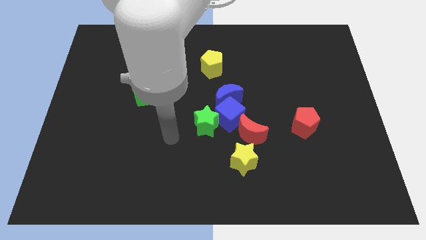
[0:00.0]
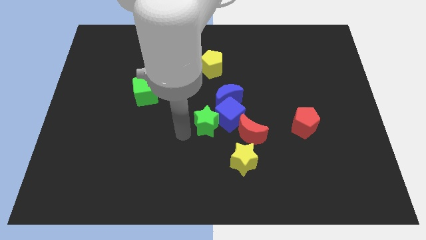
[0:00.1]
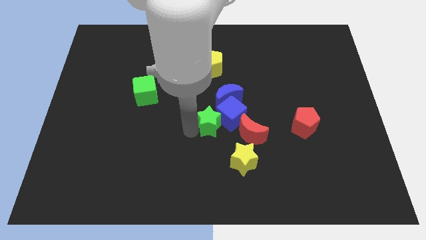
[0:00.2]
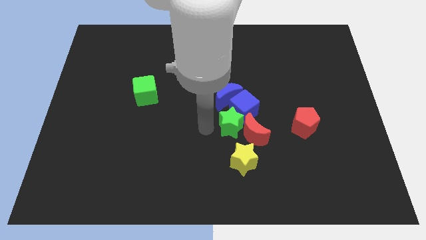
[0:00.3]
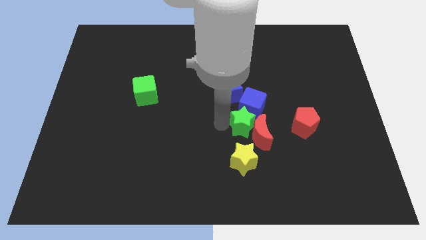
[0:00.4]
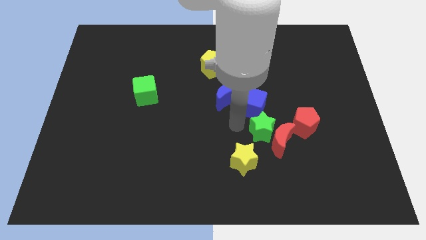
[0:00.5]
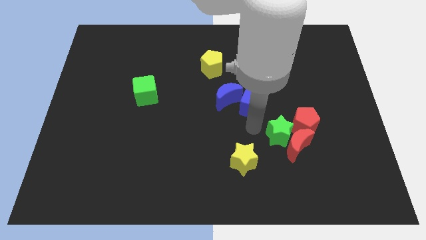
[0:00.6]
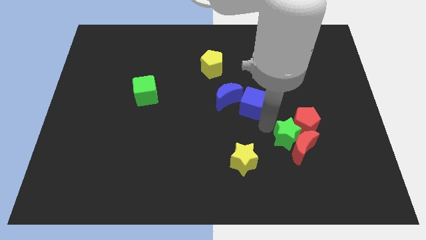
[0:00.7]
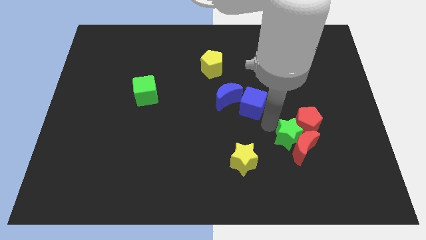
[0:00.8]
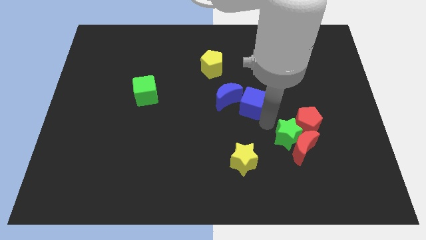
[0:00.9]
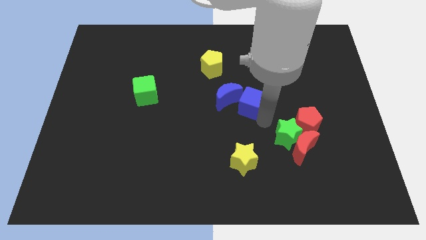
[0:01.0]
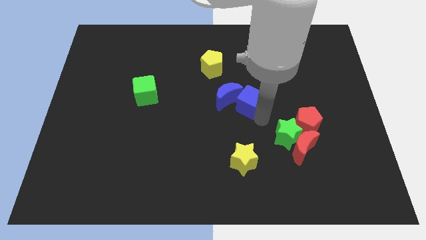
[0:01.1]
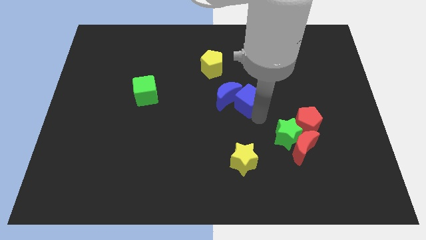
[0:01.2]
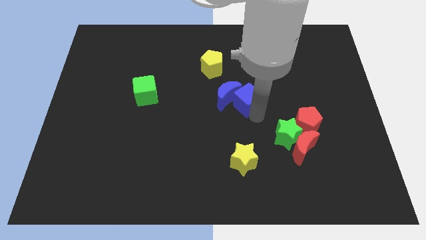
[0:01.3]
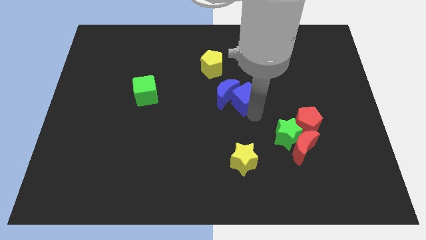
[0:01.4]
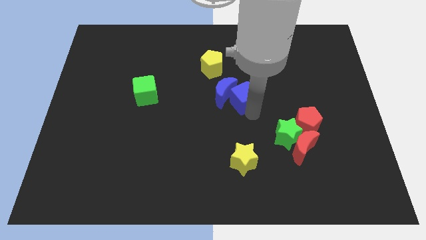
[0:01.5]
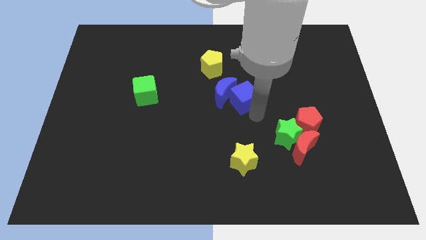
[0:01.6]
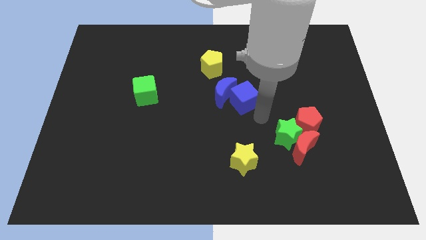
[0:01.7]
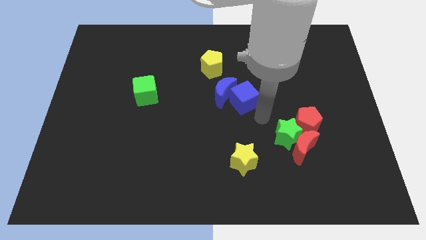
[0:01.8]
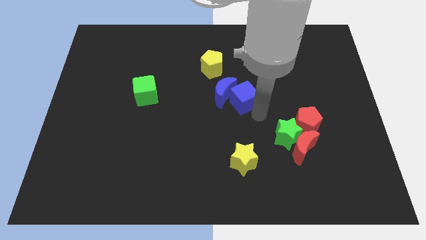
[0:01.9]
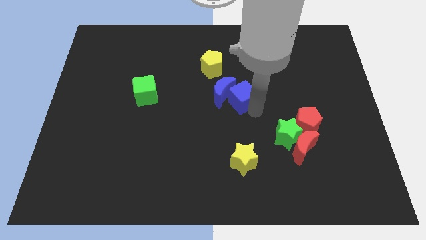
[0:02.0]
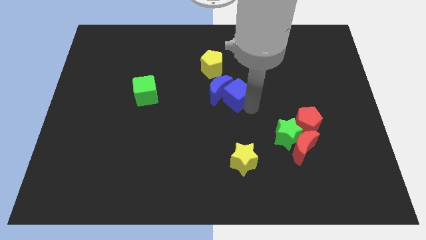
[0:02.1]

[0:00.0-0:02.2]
separate the blue cube from the group of blocks

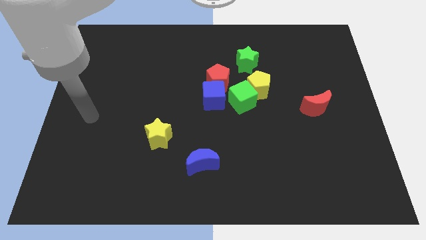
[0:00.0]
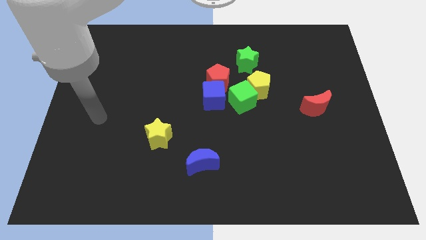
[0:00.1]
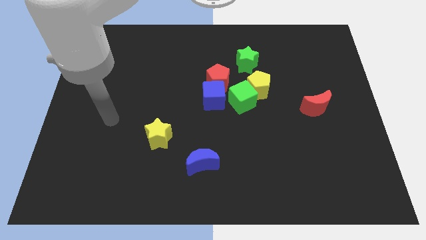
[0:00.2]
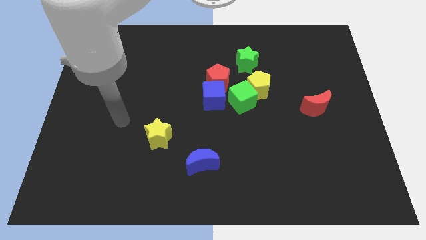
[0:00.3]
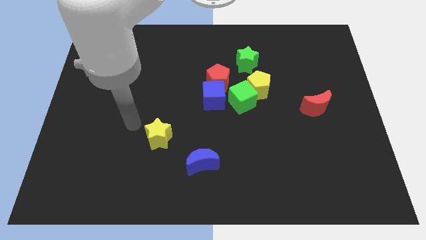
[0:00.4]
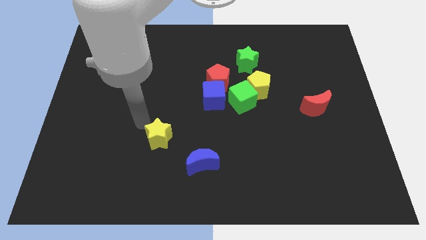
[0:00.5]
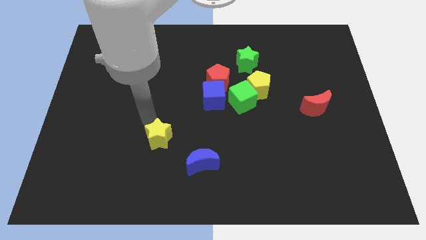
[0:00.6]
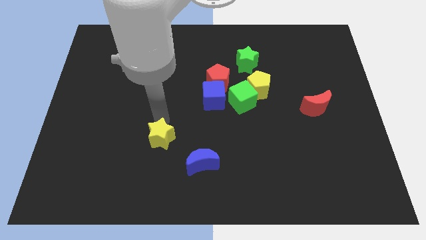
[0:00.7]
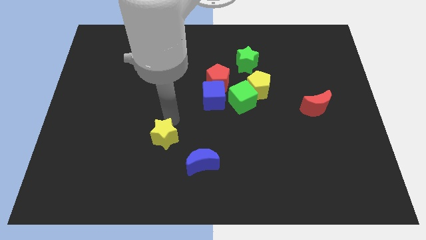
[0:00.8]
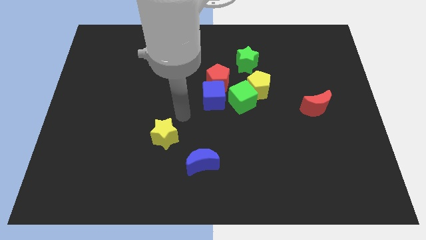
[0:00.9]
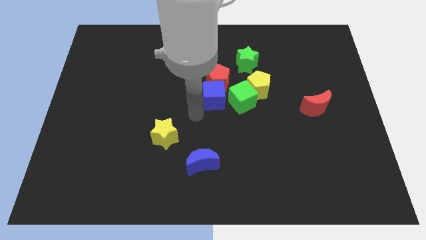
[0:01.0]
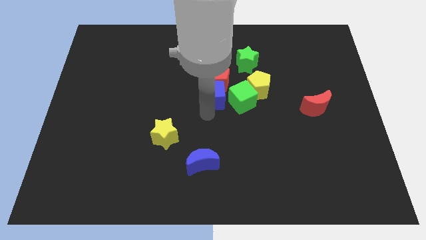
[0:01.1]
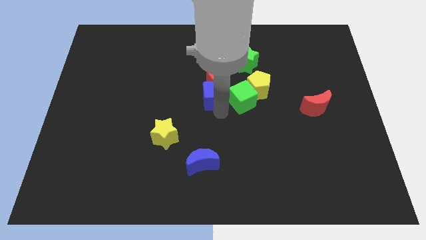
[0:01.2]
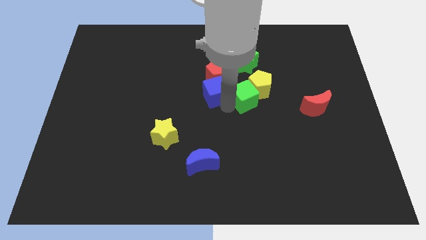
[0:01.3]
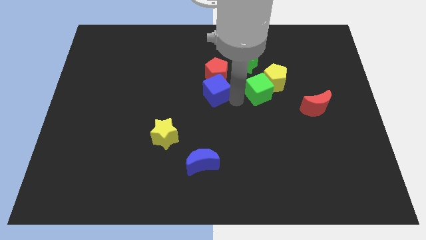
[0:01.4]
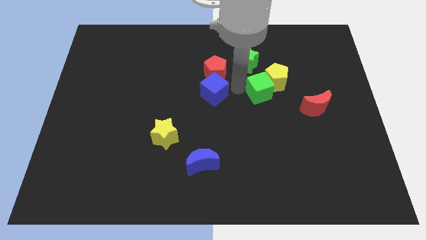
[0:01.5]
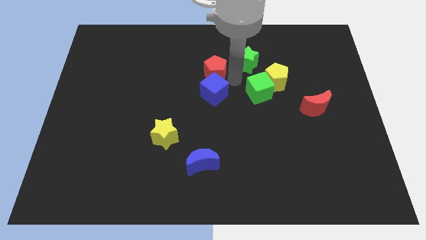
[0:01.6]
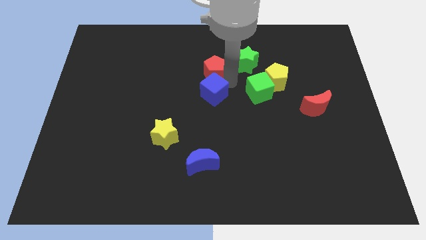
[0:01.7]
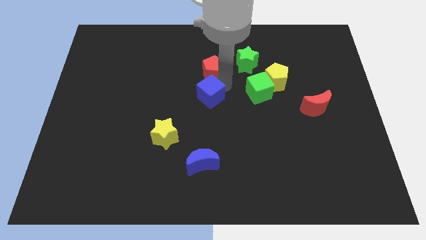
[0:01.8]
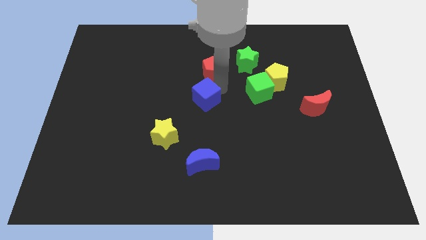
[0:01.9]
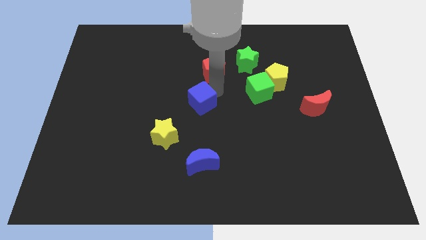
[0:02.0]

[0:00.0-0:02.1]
separate the blue cube from the red pentagon and green cube

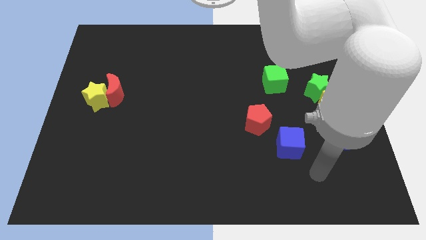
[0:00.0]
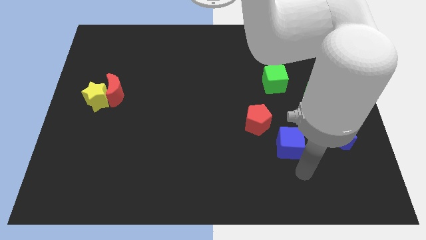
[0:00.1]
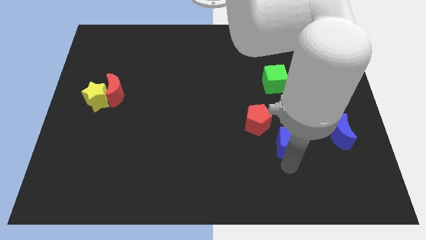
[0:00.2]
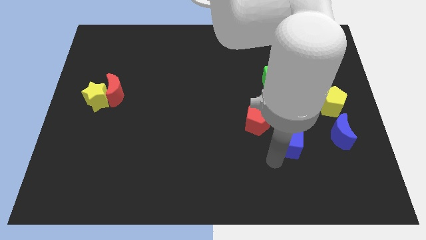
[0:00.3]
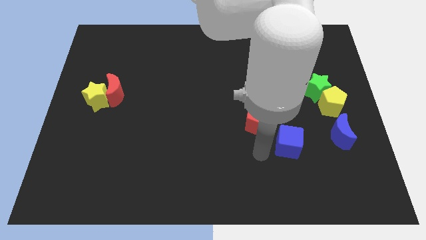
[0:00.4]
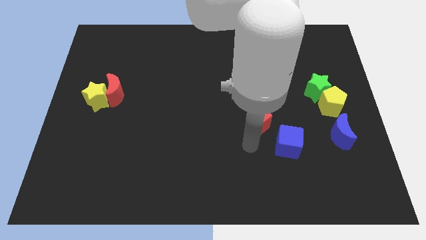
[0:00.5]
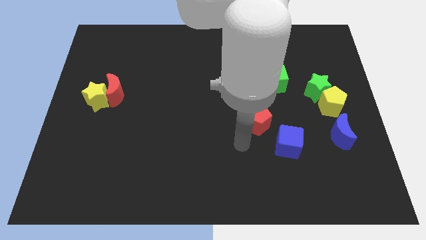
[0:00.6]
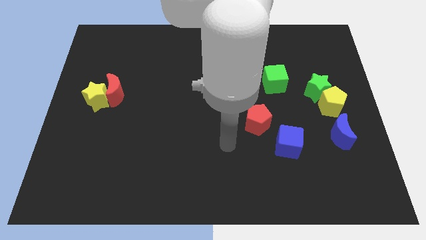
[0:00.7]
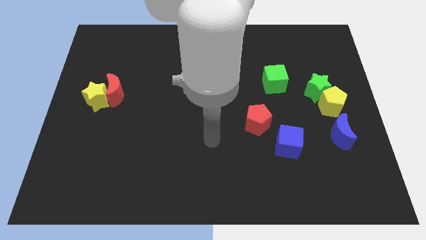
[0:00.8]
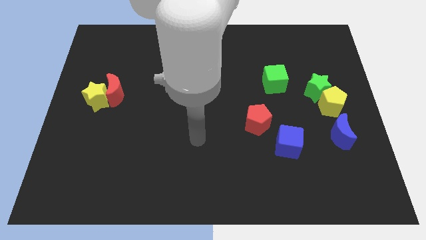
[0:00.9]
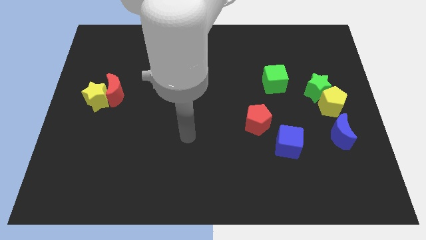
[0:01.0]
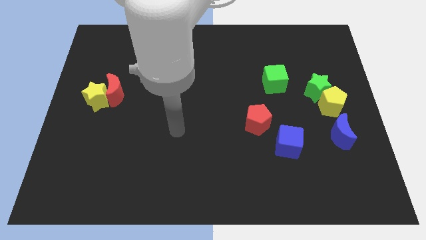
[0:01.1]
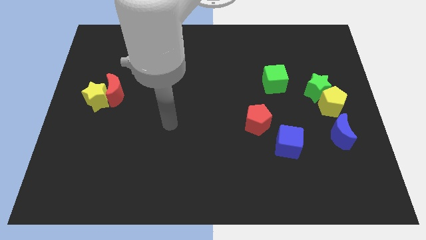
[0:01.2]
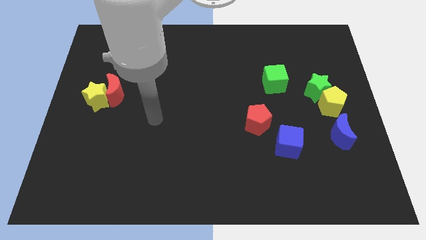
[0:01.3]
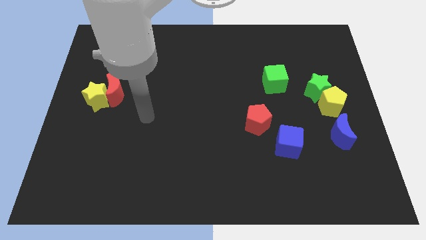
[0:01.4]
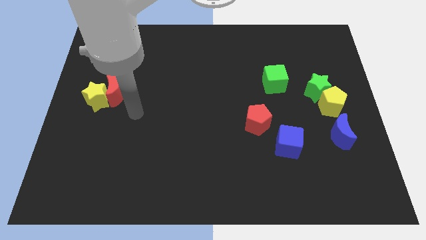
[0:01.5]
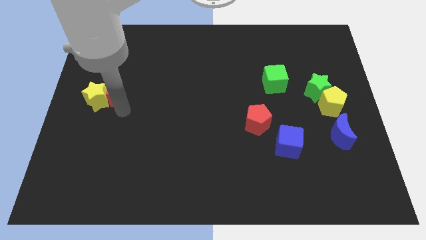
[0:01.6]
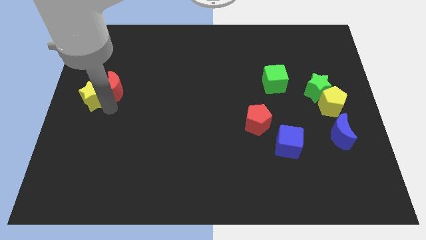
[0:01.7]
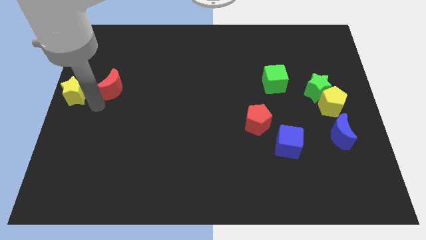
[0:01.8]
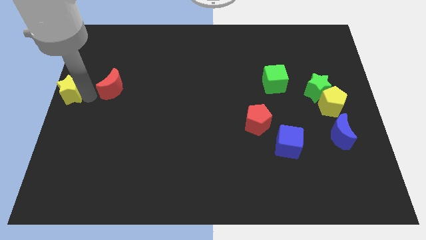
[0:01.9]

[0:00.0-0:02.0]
move the red moon away from the yellow star

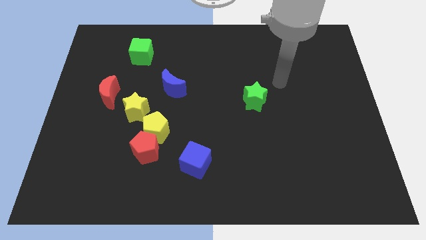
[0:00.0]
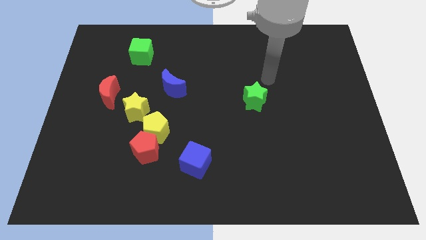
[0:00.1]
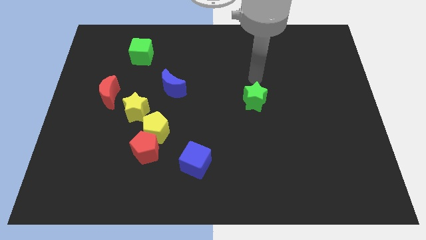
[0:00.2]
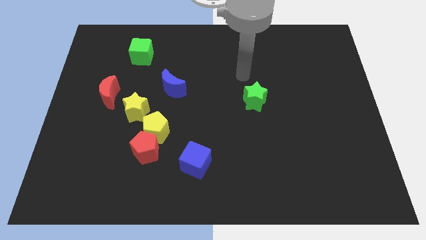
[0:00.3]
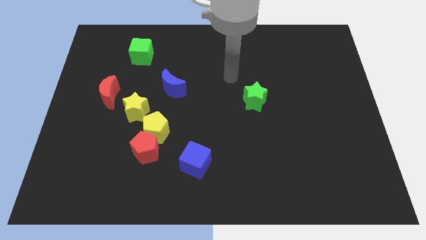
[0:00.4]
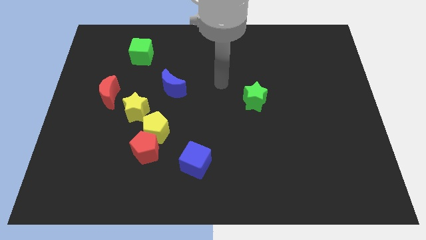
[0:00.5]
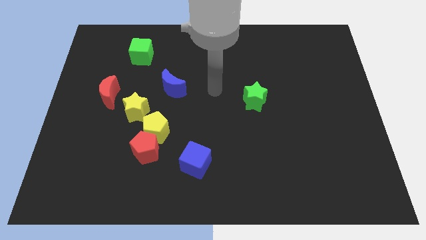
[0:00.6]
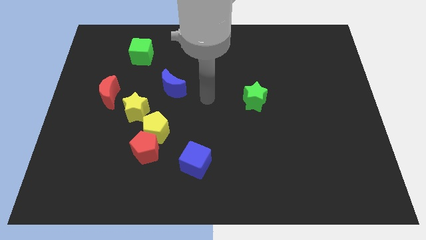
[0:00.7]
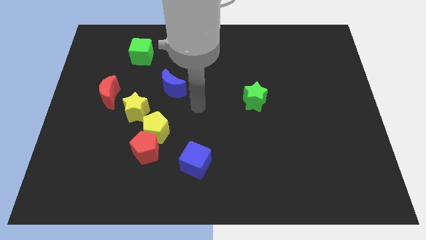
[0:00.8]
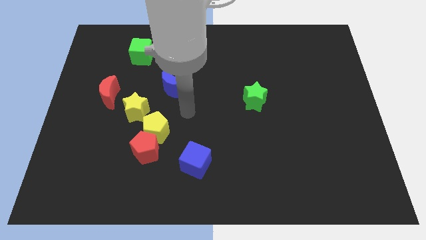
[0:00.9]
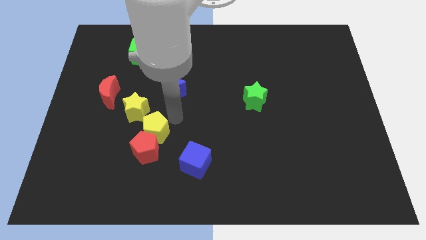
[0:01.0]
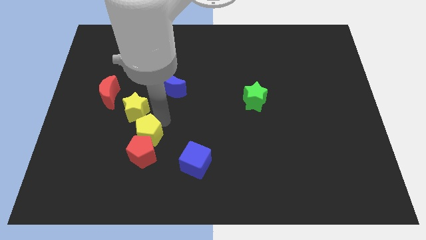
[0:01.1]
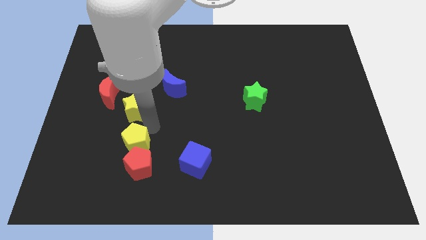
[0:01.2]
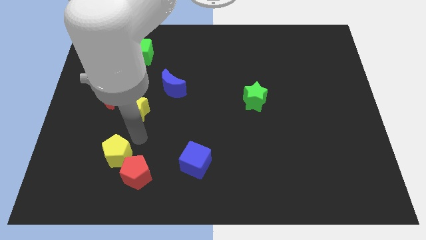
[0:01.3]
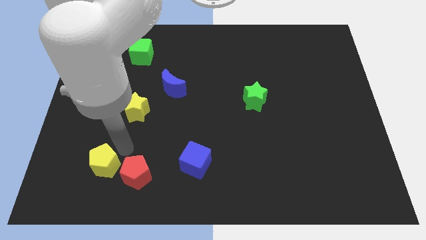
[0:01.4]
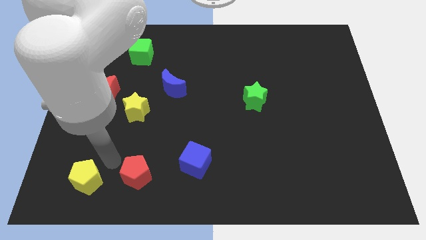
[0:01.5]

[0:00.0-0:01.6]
move the red pentagon away from the yellow pentagon

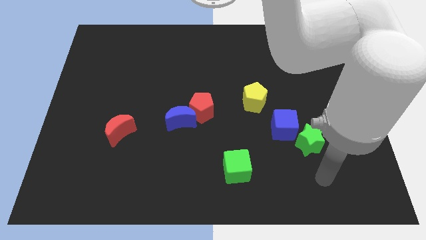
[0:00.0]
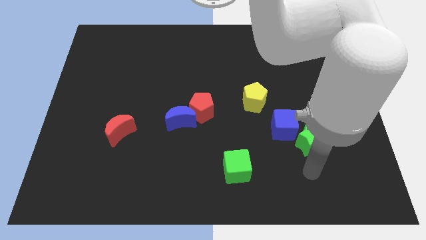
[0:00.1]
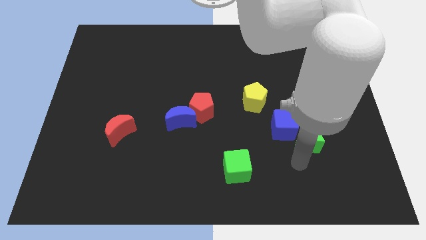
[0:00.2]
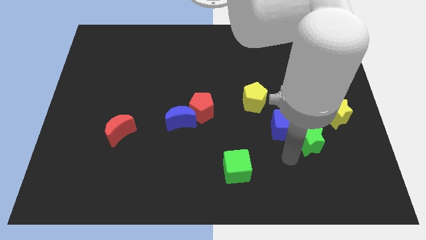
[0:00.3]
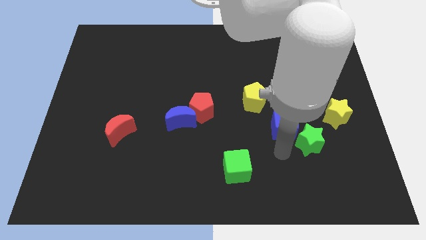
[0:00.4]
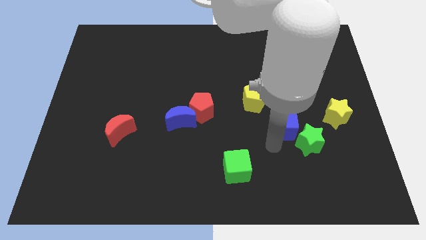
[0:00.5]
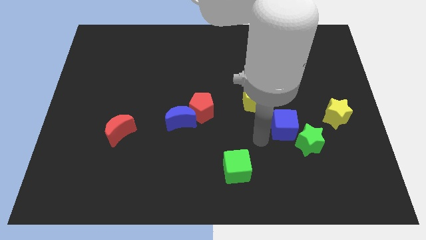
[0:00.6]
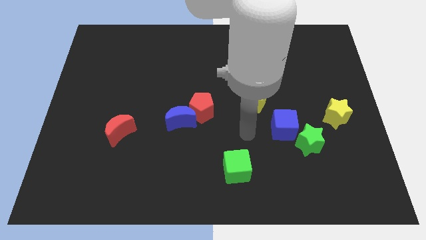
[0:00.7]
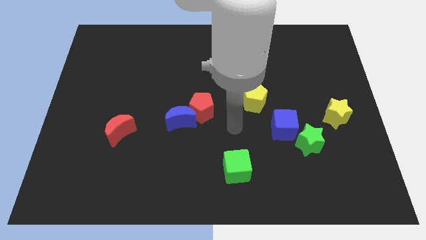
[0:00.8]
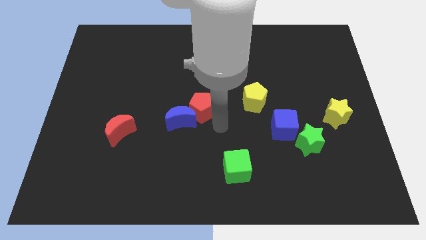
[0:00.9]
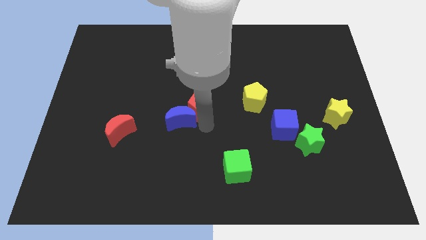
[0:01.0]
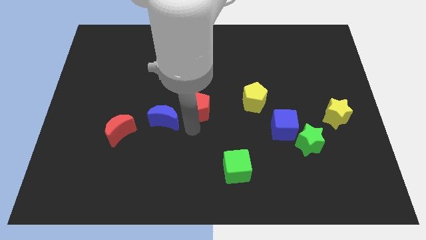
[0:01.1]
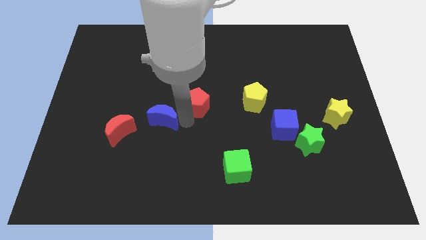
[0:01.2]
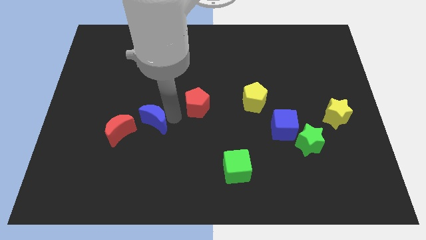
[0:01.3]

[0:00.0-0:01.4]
pull the red pentagon apart from the blue moon
